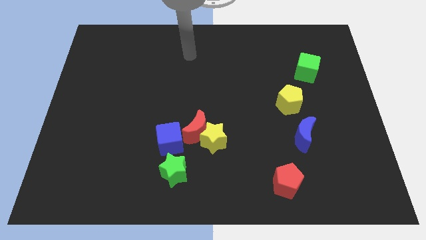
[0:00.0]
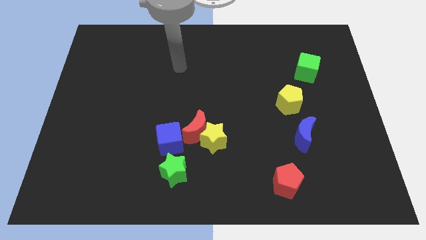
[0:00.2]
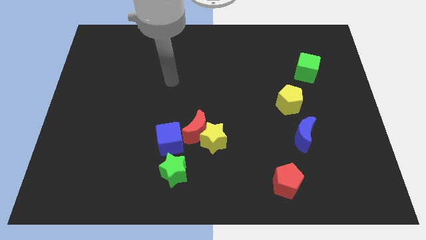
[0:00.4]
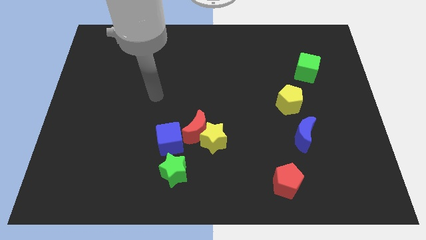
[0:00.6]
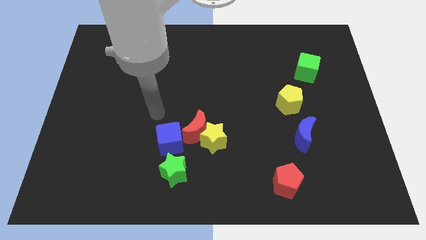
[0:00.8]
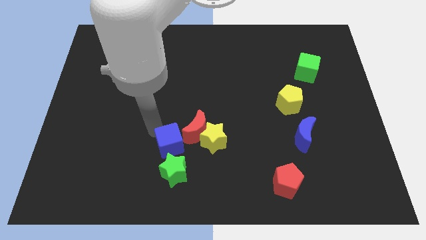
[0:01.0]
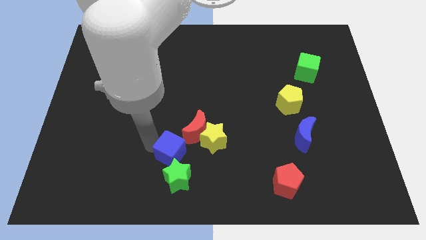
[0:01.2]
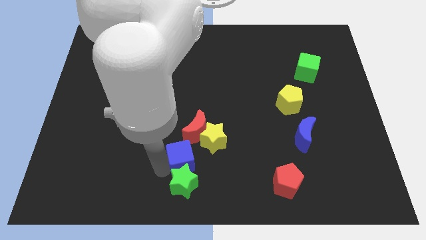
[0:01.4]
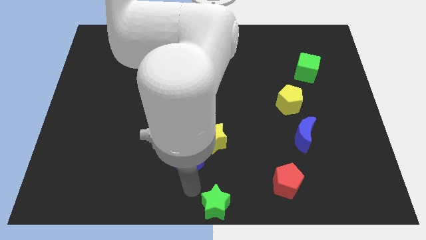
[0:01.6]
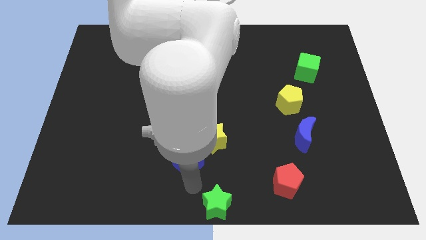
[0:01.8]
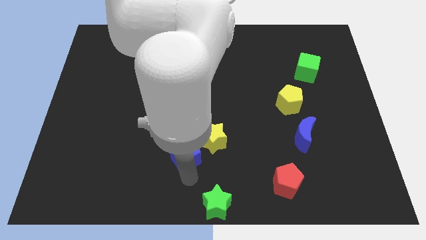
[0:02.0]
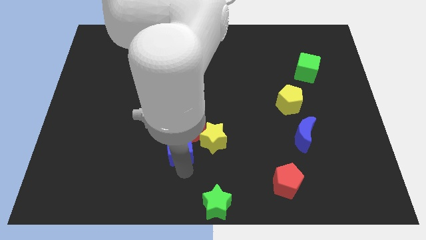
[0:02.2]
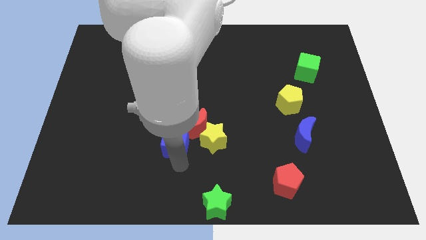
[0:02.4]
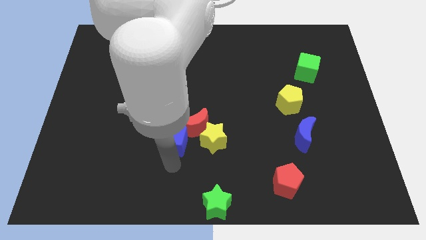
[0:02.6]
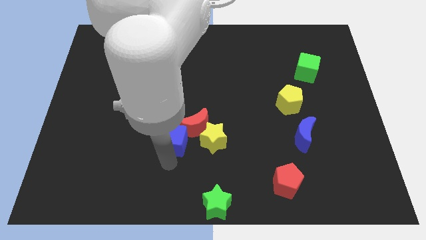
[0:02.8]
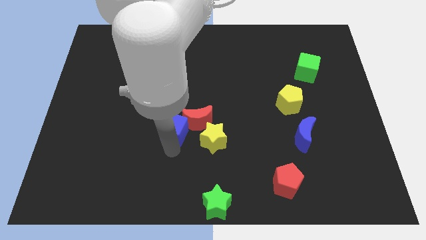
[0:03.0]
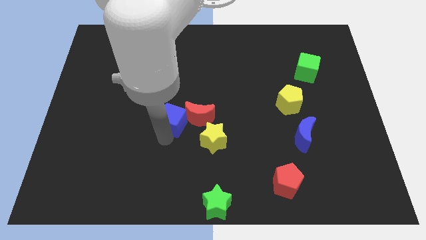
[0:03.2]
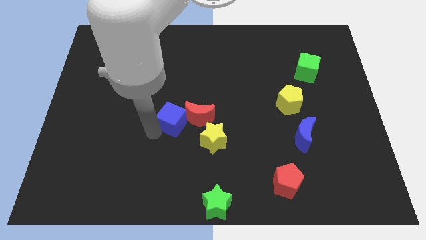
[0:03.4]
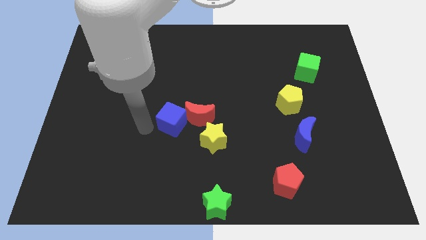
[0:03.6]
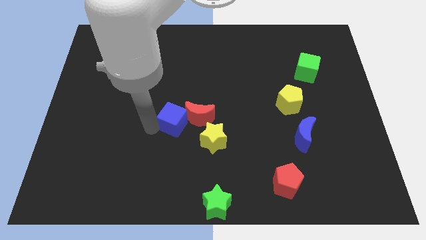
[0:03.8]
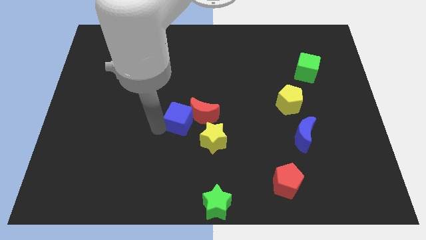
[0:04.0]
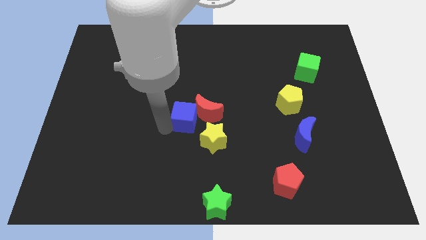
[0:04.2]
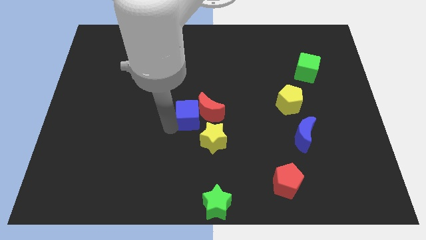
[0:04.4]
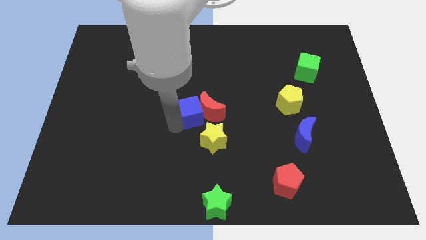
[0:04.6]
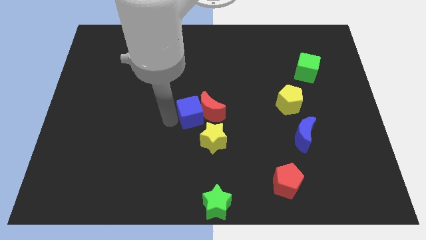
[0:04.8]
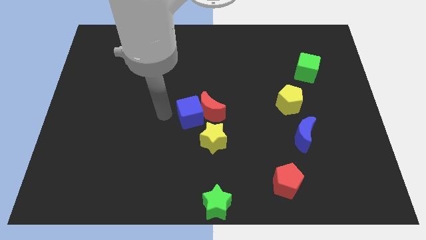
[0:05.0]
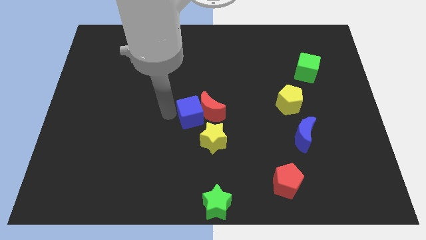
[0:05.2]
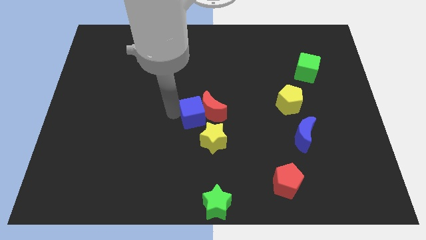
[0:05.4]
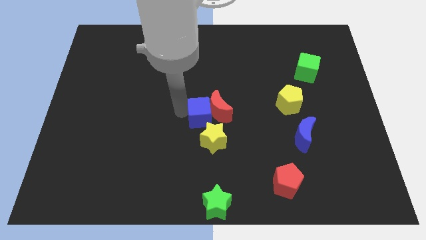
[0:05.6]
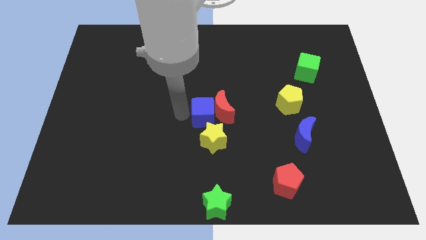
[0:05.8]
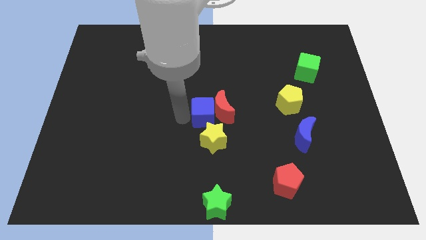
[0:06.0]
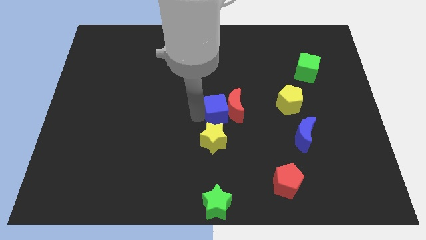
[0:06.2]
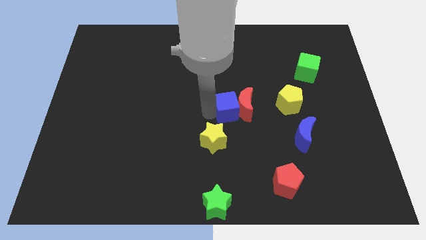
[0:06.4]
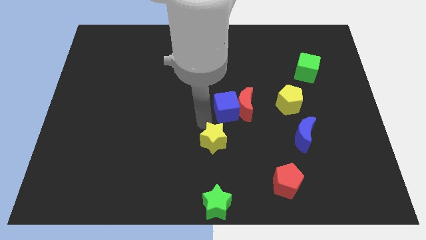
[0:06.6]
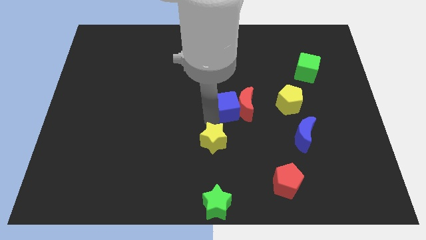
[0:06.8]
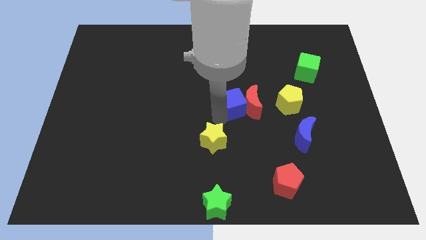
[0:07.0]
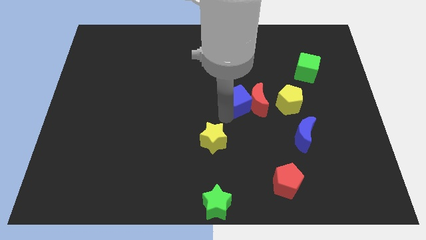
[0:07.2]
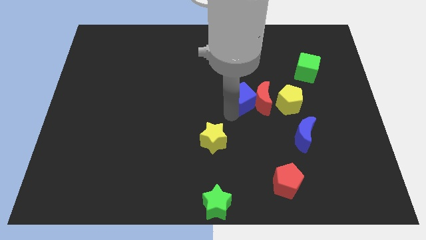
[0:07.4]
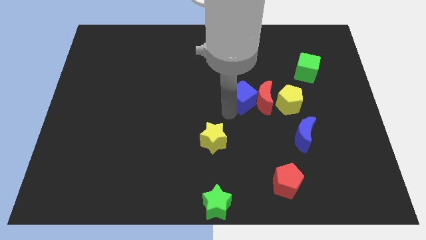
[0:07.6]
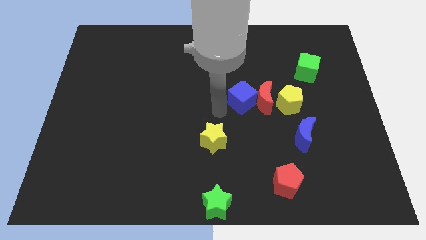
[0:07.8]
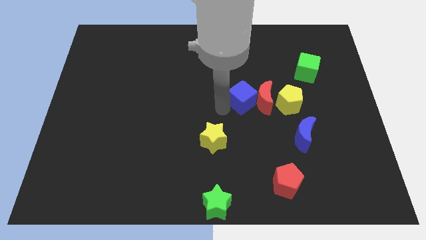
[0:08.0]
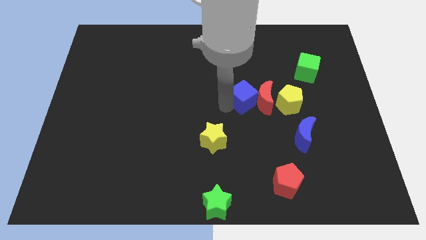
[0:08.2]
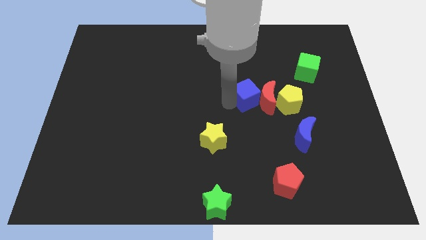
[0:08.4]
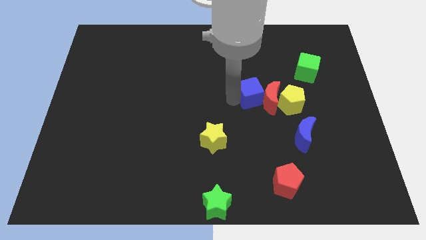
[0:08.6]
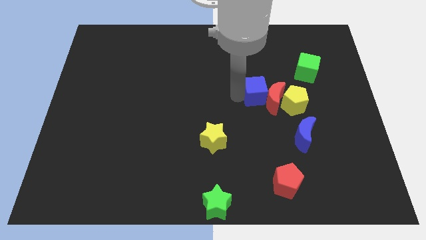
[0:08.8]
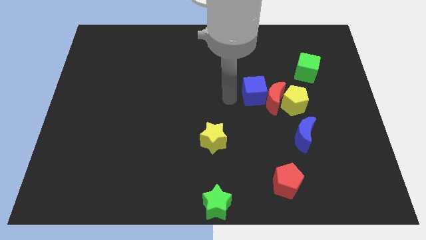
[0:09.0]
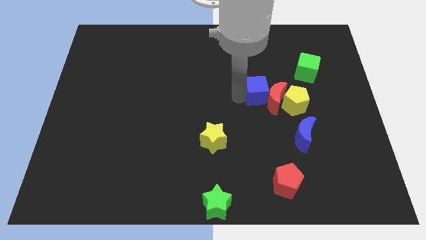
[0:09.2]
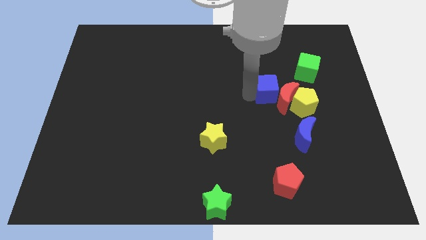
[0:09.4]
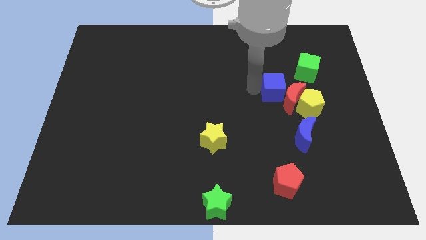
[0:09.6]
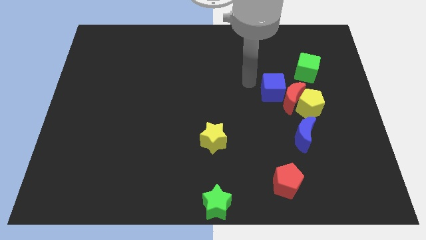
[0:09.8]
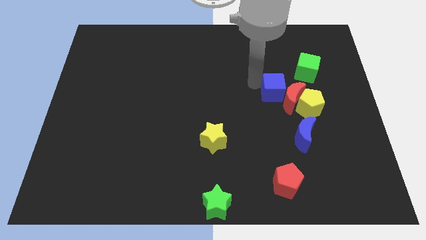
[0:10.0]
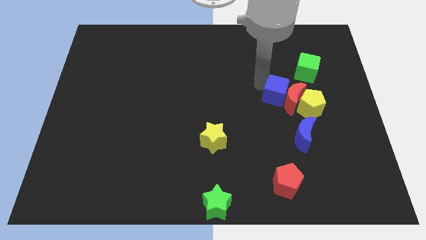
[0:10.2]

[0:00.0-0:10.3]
push the blue cube above the blue moon

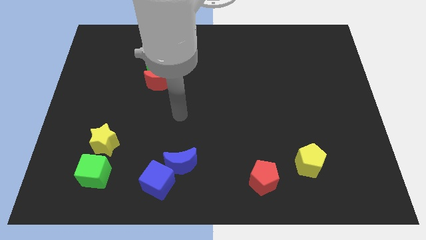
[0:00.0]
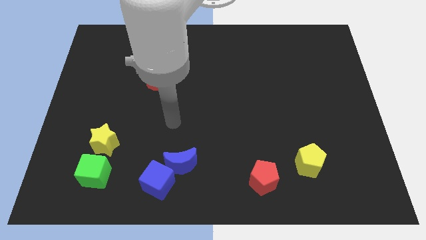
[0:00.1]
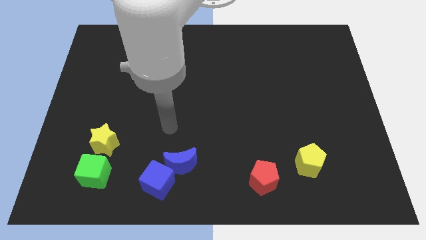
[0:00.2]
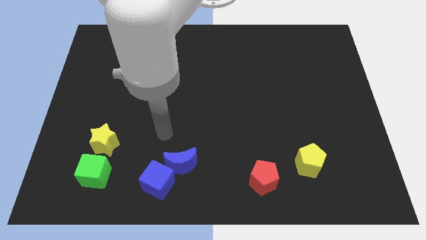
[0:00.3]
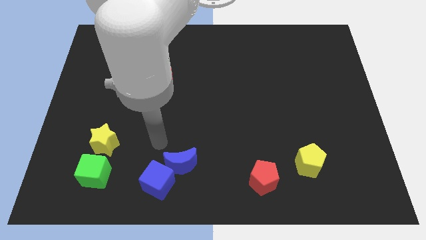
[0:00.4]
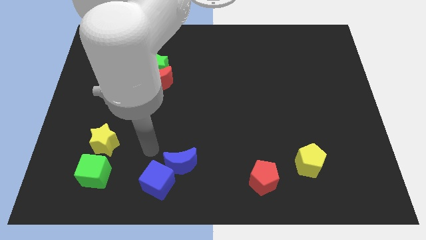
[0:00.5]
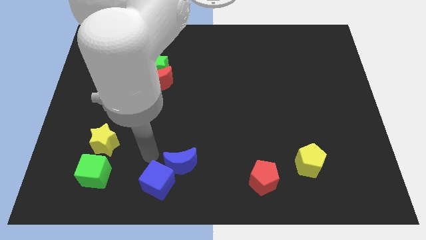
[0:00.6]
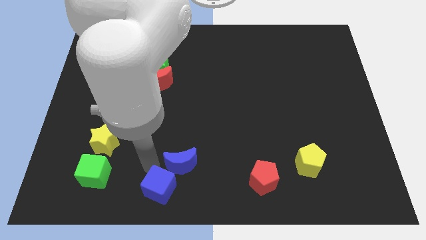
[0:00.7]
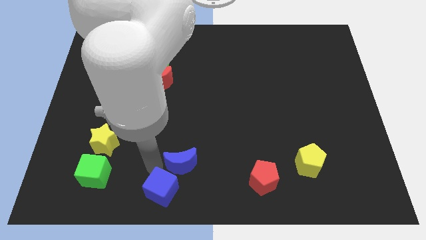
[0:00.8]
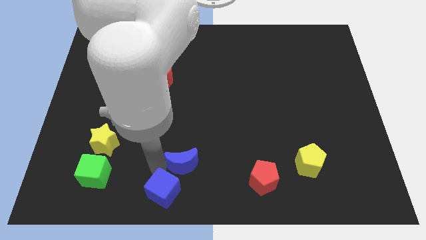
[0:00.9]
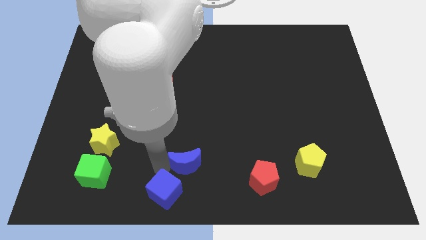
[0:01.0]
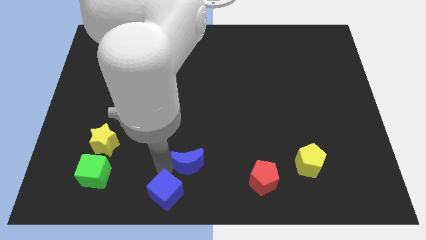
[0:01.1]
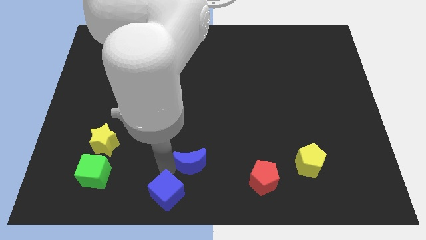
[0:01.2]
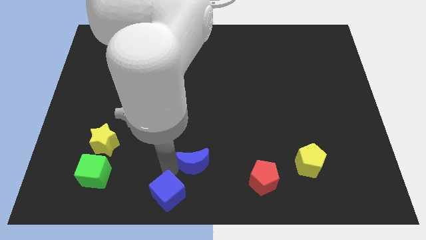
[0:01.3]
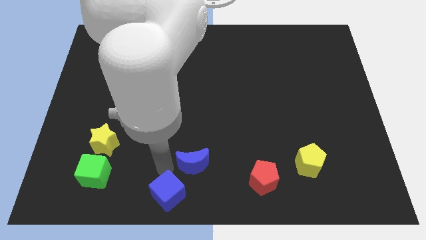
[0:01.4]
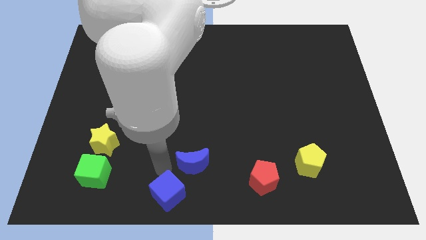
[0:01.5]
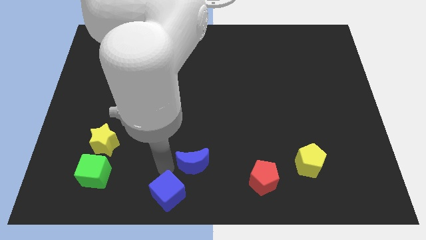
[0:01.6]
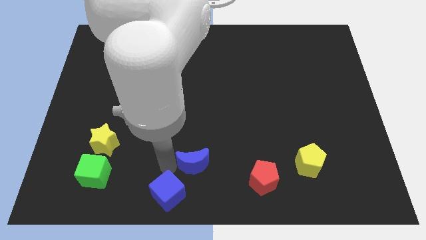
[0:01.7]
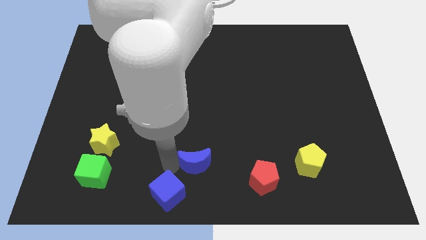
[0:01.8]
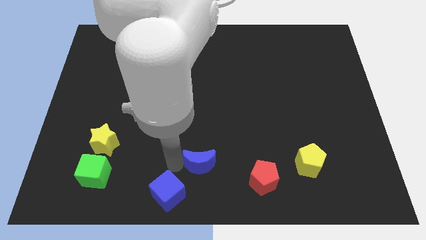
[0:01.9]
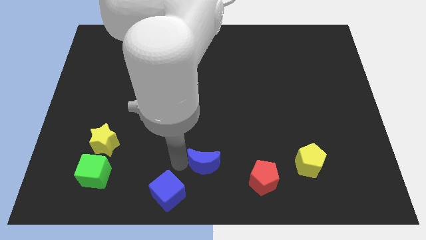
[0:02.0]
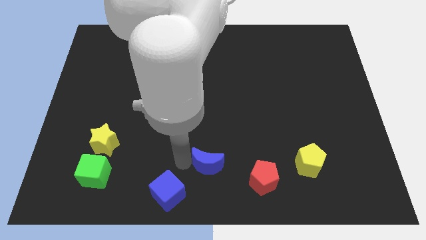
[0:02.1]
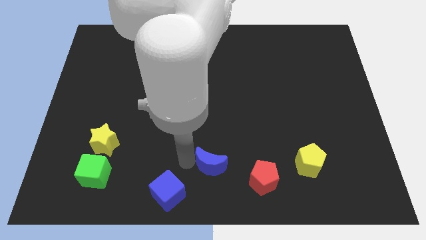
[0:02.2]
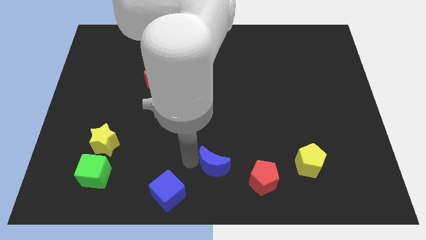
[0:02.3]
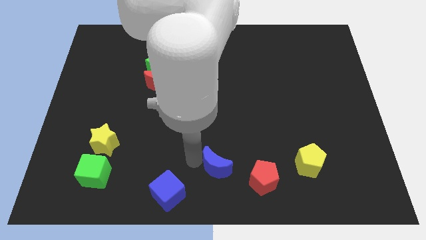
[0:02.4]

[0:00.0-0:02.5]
push the blue moon diagonally up and to the left of the red pentagon

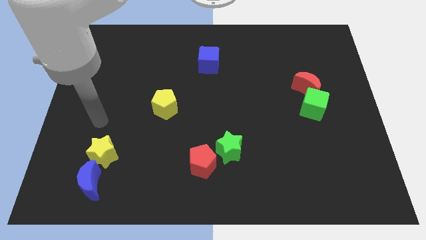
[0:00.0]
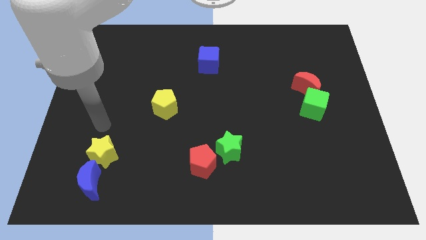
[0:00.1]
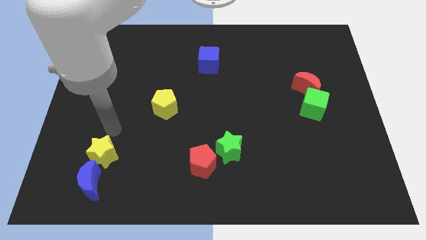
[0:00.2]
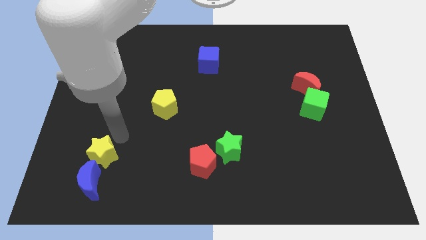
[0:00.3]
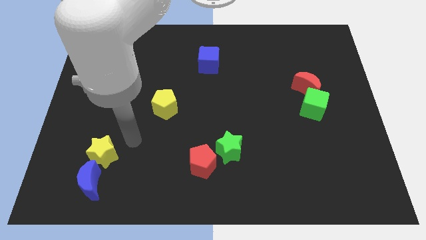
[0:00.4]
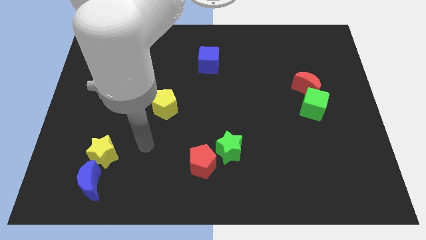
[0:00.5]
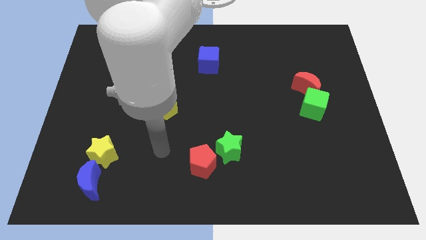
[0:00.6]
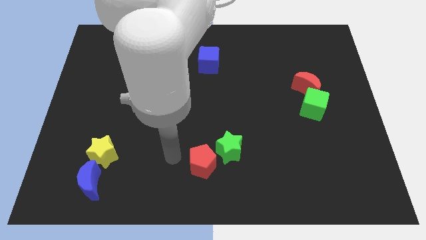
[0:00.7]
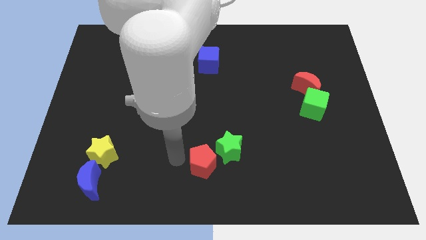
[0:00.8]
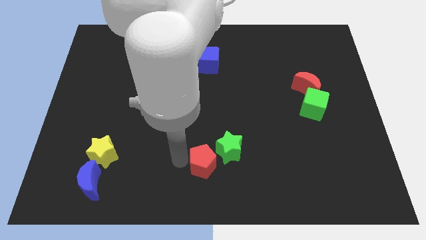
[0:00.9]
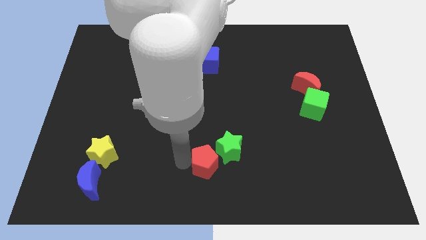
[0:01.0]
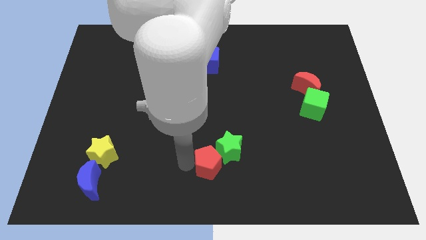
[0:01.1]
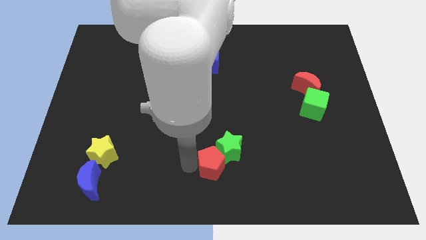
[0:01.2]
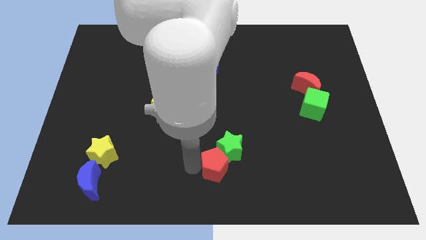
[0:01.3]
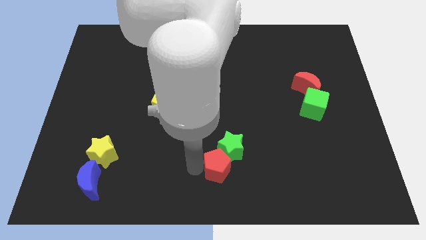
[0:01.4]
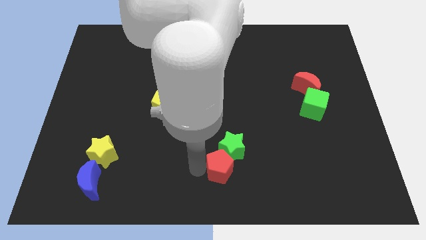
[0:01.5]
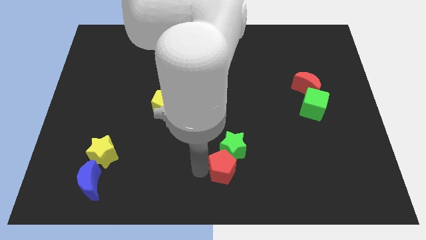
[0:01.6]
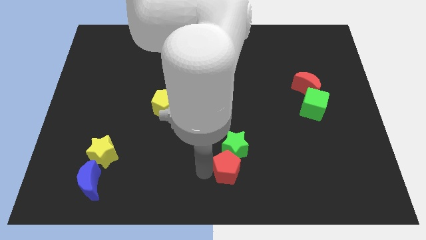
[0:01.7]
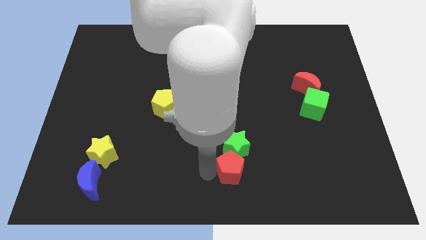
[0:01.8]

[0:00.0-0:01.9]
put the red pentagon diagonally down and to the right of the green star
